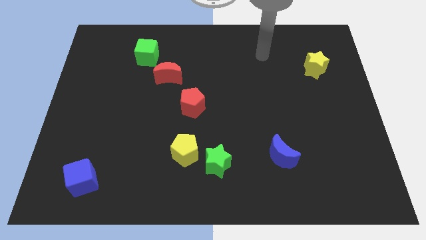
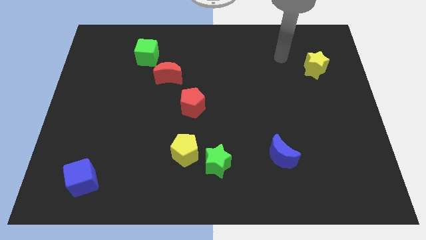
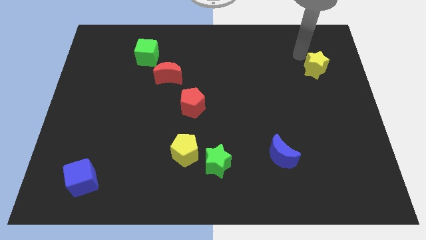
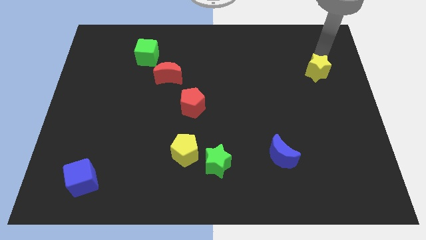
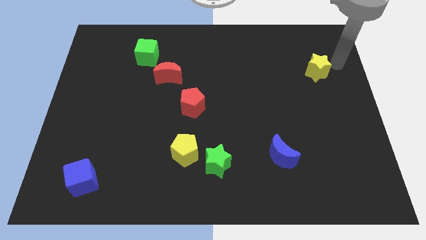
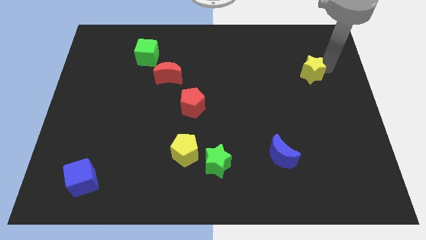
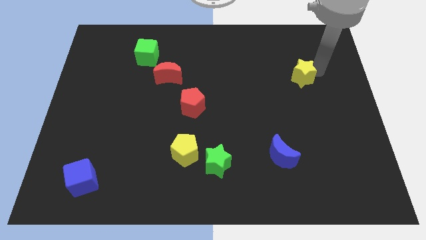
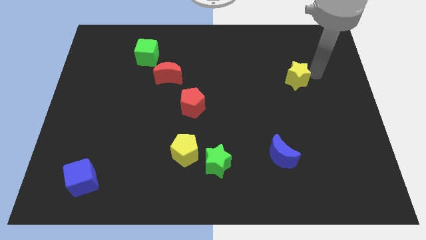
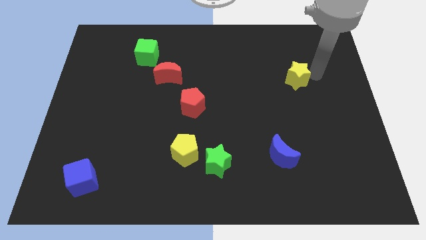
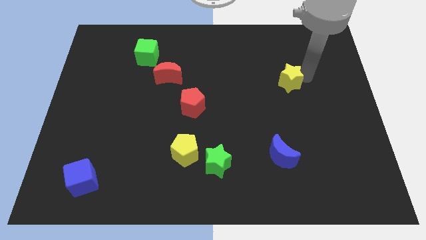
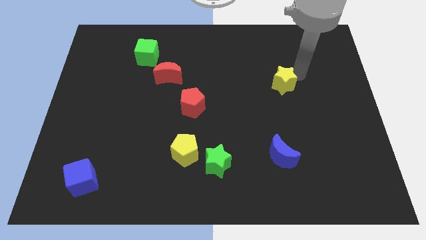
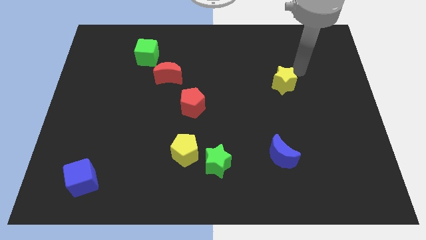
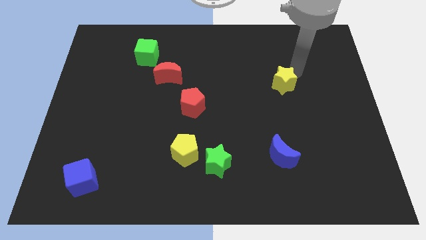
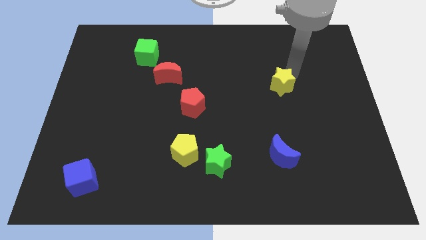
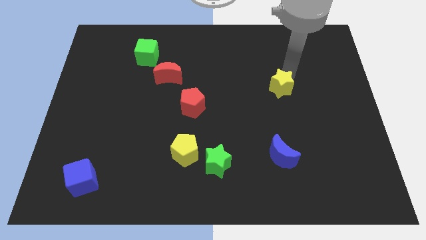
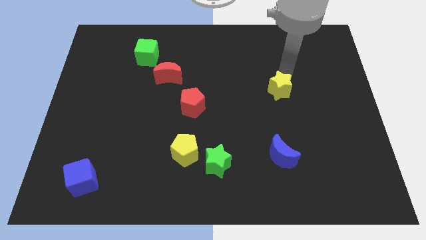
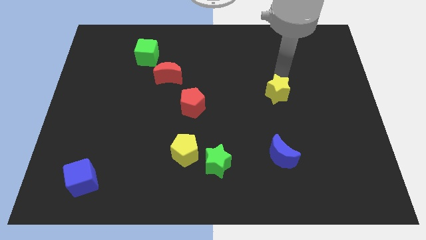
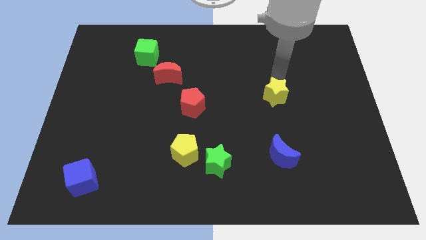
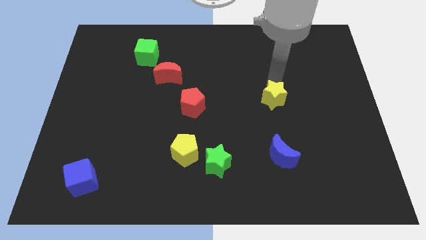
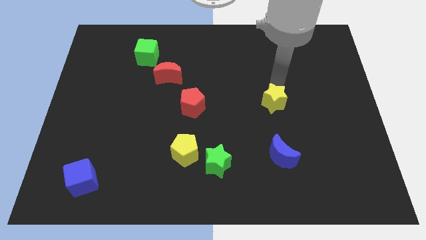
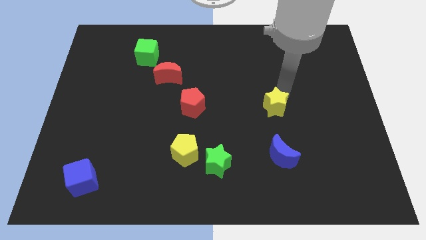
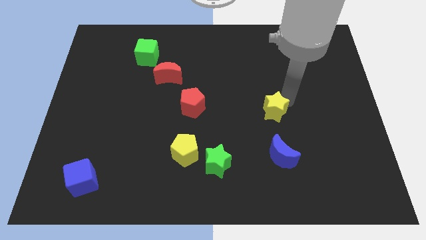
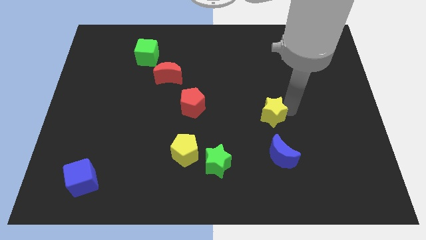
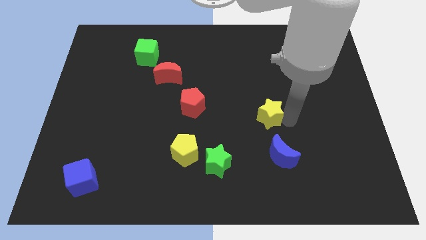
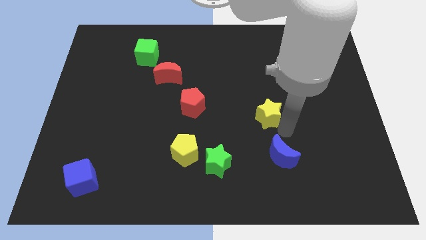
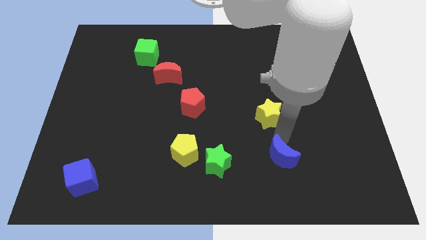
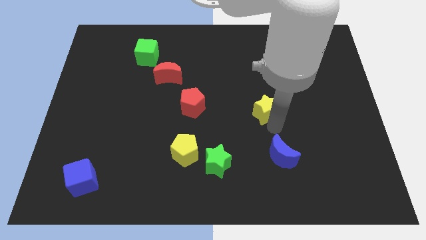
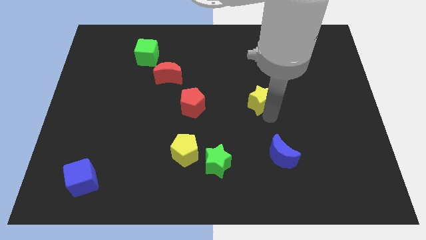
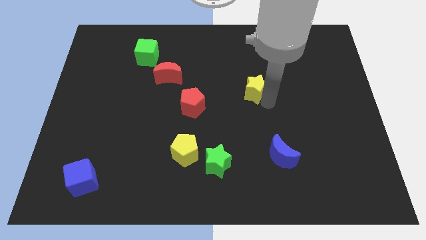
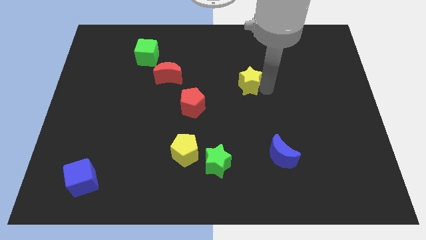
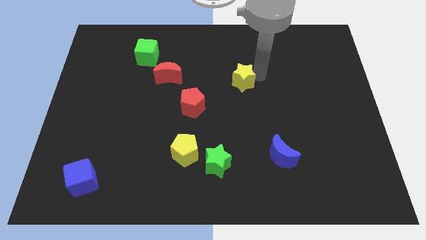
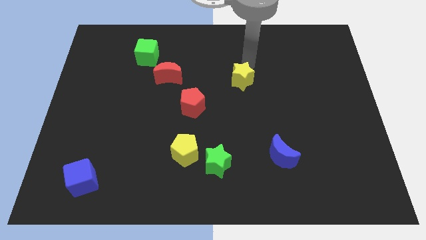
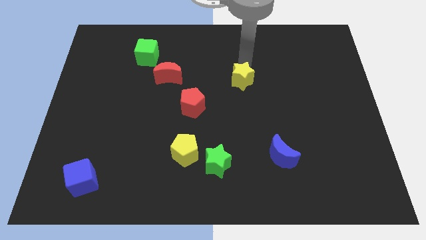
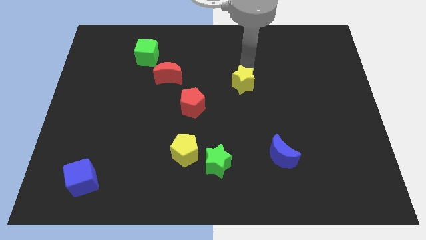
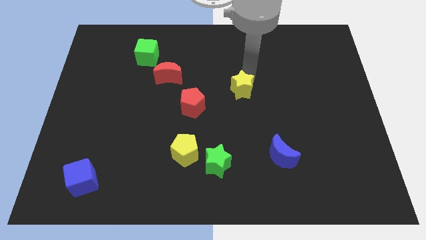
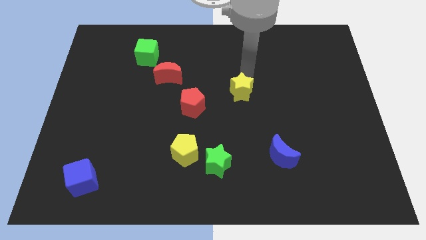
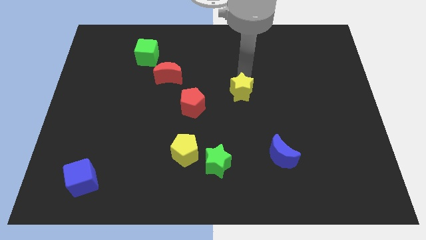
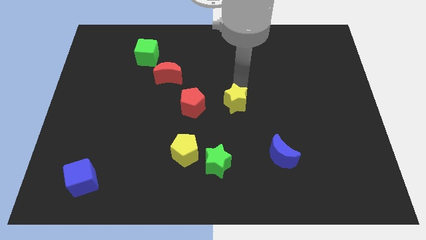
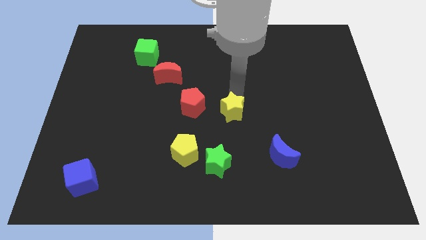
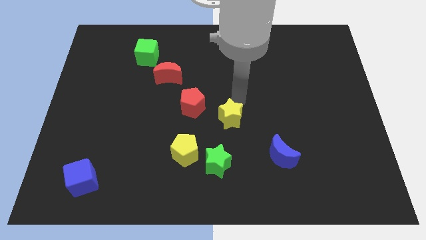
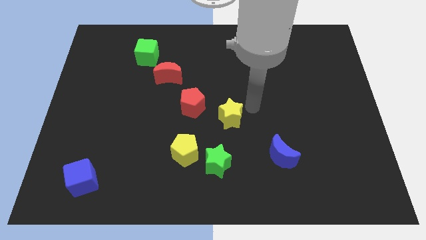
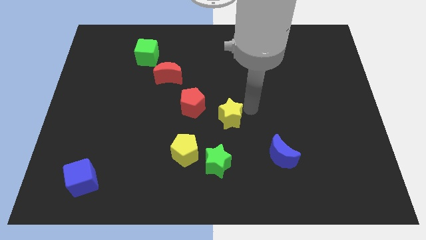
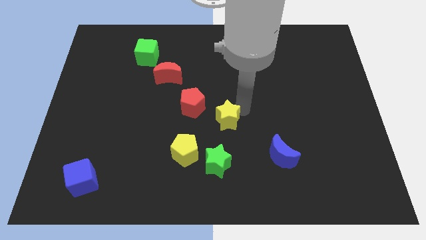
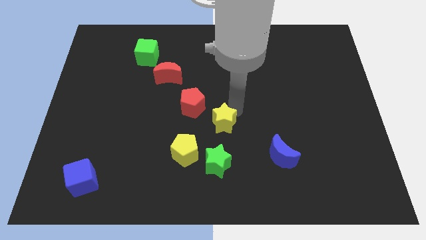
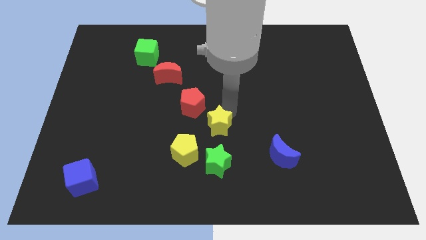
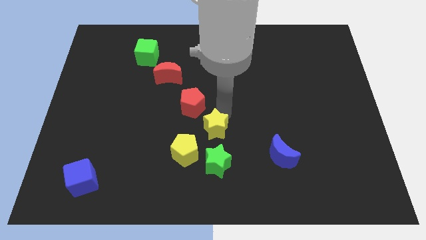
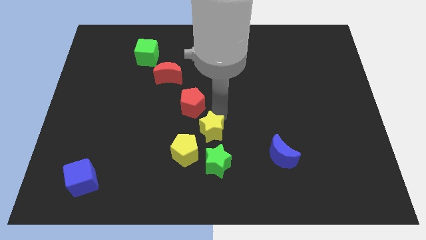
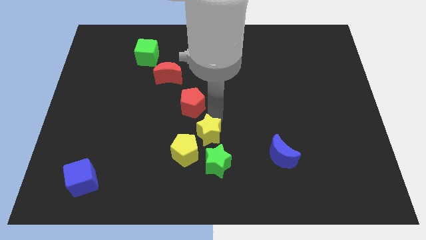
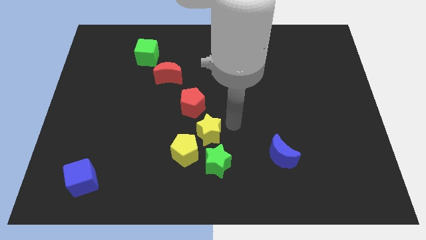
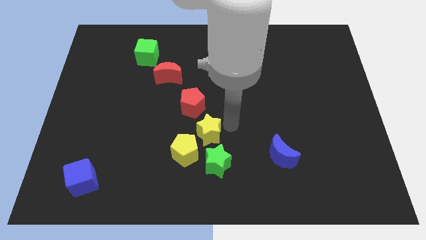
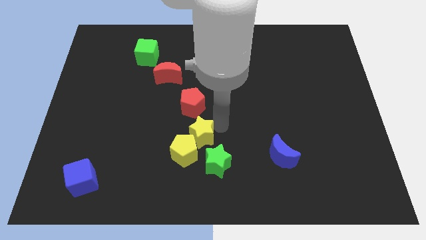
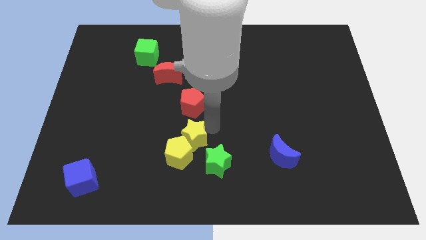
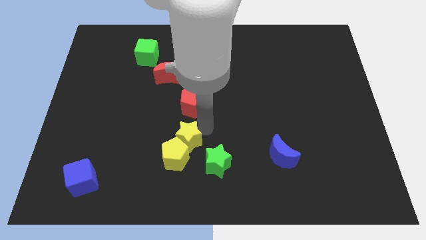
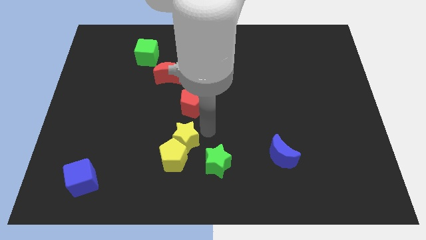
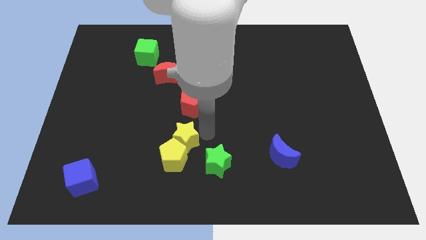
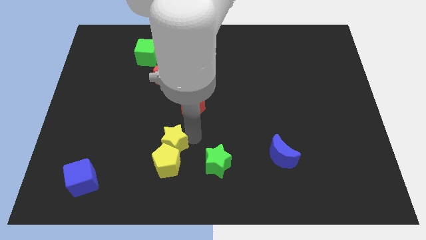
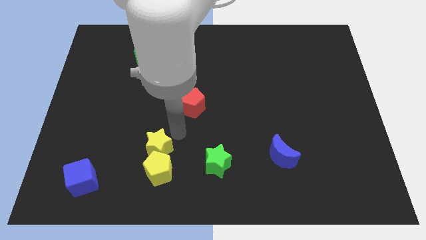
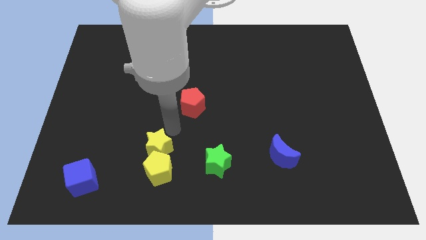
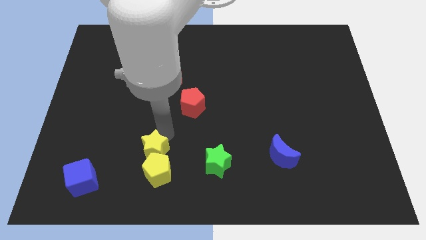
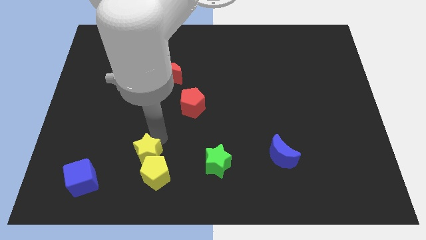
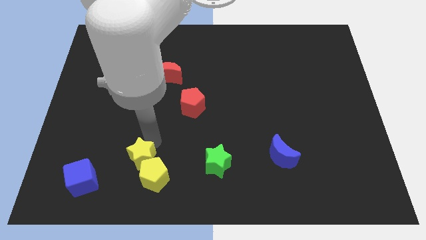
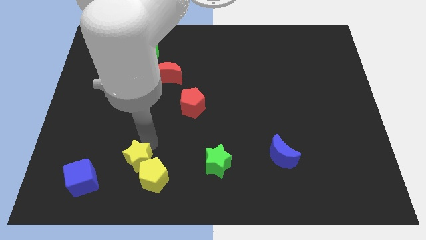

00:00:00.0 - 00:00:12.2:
put the yellow star to the right of the blue cube
